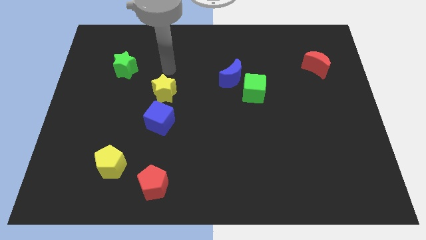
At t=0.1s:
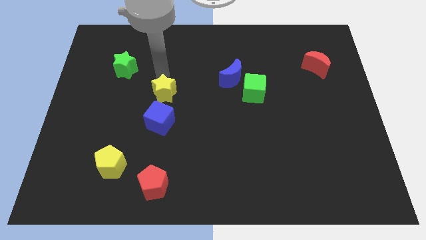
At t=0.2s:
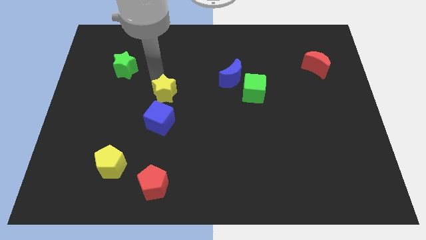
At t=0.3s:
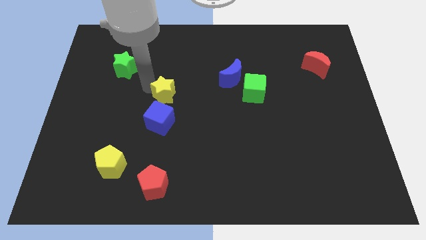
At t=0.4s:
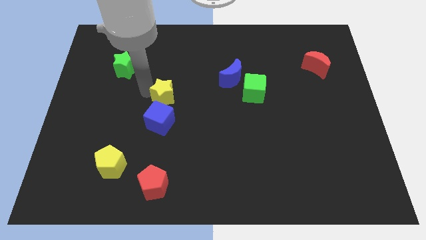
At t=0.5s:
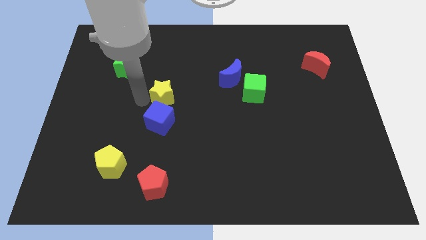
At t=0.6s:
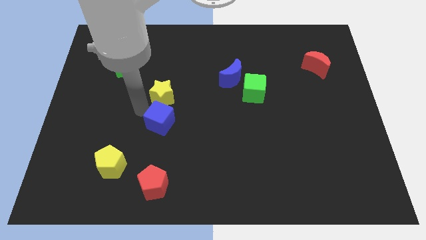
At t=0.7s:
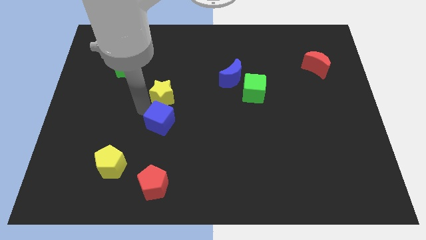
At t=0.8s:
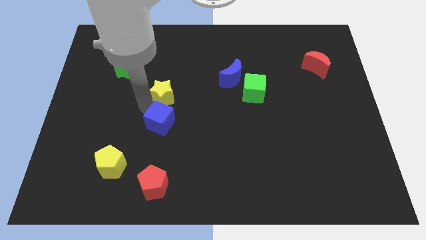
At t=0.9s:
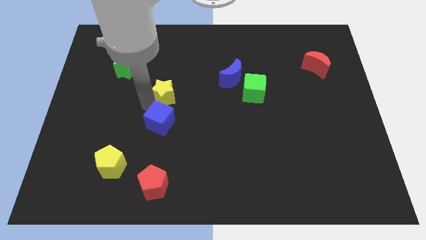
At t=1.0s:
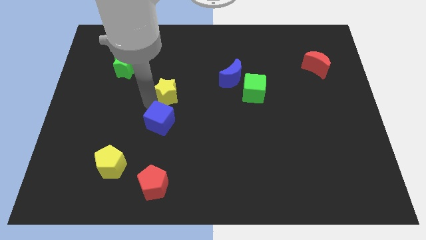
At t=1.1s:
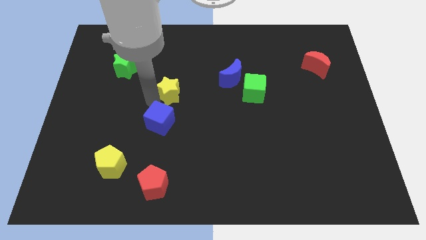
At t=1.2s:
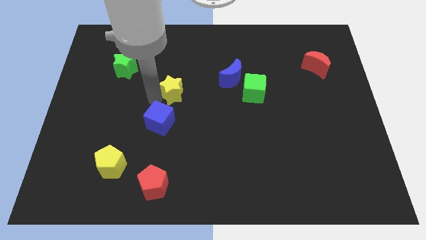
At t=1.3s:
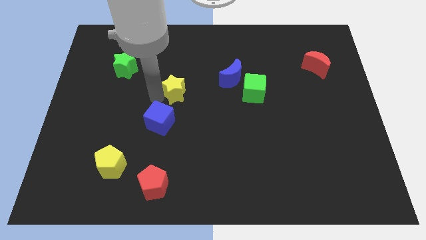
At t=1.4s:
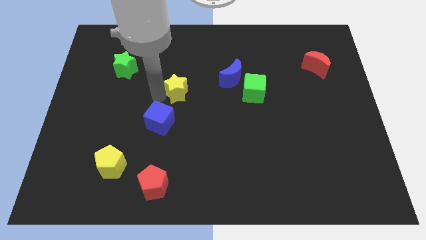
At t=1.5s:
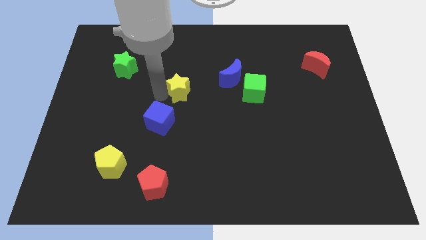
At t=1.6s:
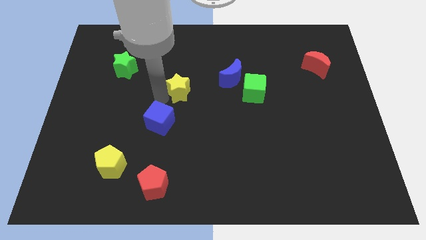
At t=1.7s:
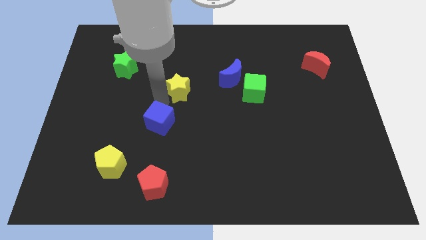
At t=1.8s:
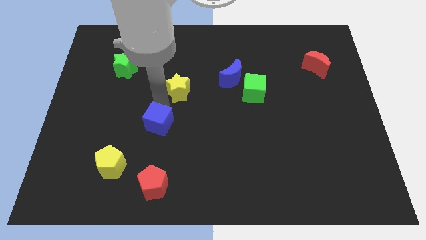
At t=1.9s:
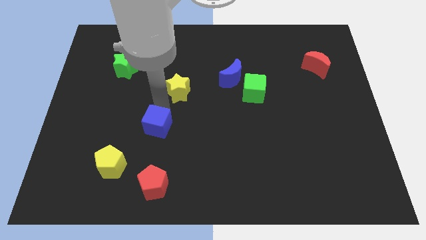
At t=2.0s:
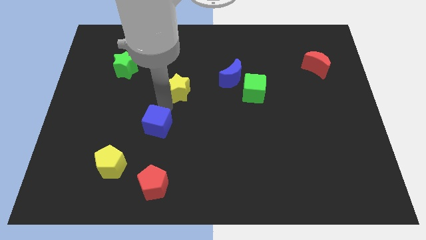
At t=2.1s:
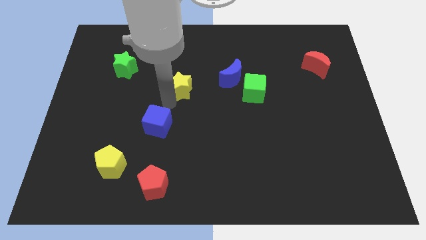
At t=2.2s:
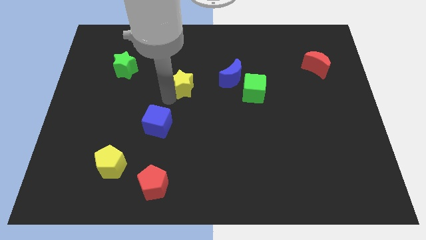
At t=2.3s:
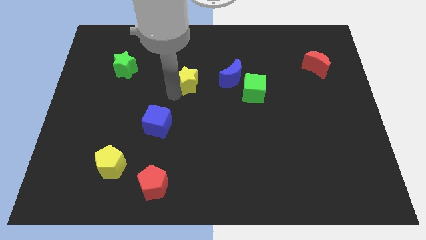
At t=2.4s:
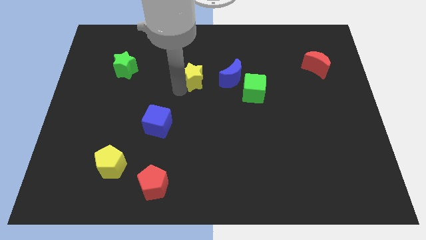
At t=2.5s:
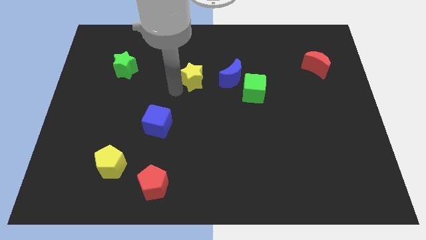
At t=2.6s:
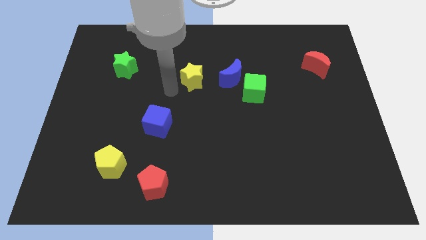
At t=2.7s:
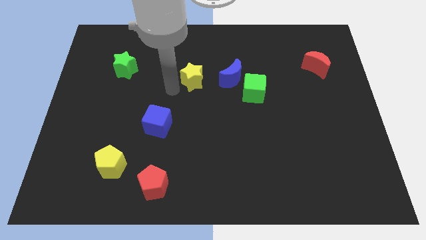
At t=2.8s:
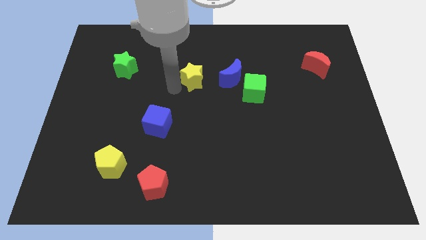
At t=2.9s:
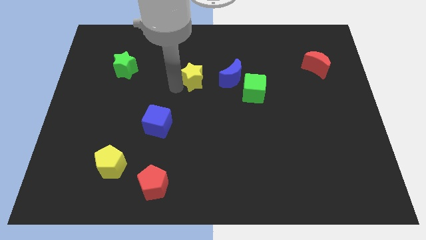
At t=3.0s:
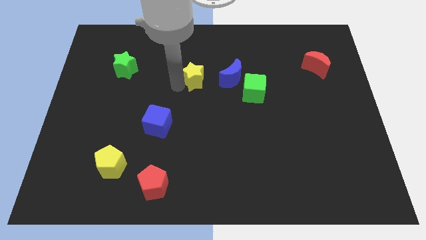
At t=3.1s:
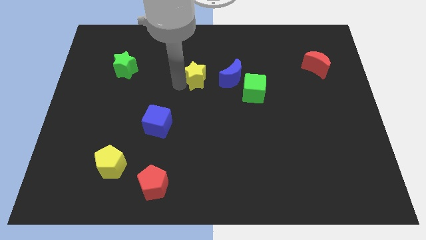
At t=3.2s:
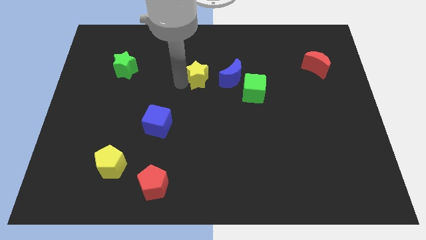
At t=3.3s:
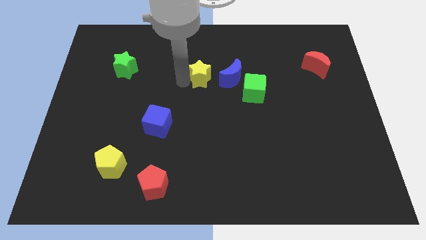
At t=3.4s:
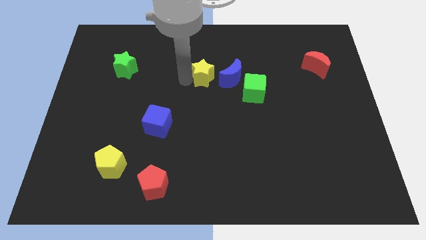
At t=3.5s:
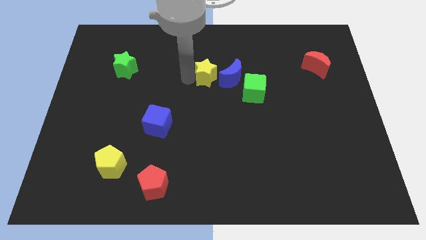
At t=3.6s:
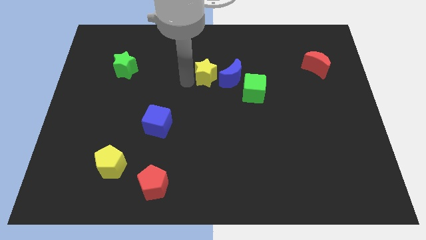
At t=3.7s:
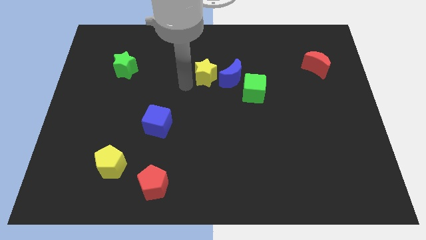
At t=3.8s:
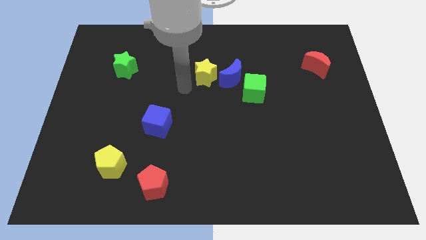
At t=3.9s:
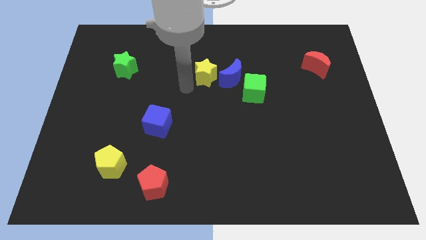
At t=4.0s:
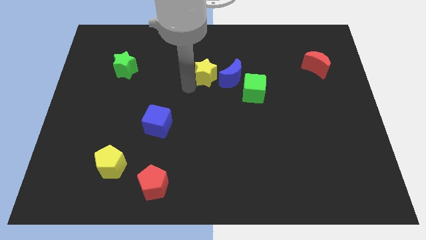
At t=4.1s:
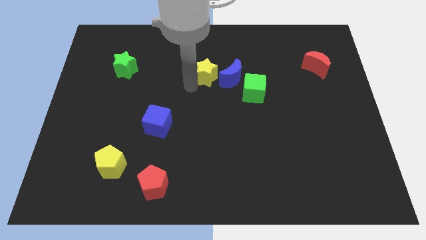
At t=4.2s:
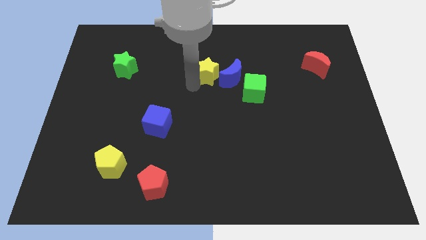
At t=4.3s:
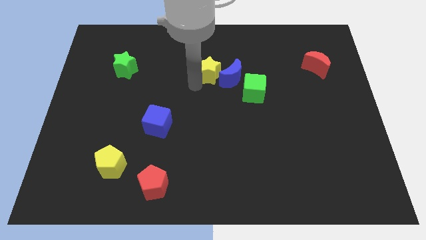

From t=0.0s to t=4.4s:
push the yellow star diagonally up and to the left of the green cube

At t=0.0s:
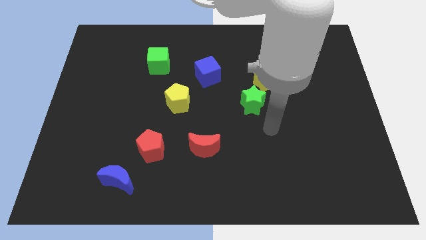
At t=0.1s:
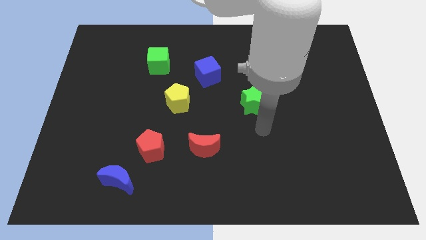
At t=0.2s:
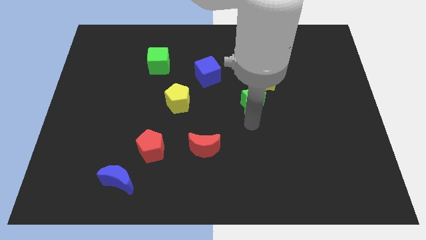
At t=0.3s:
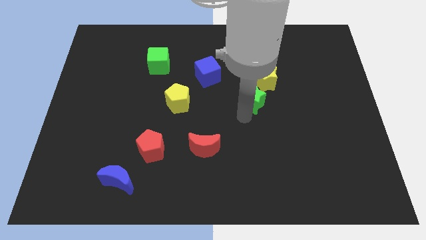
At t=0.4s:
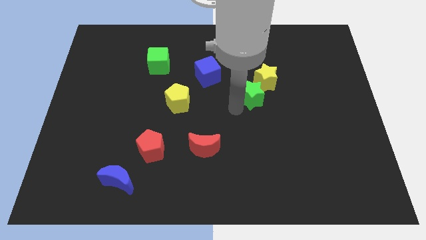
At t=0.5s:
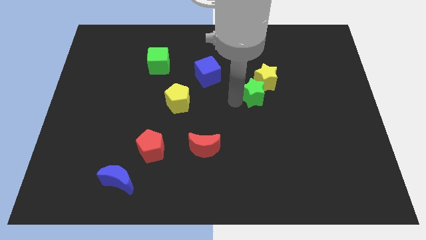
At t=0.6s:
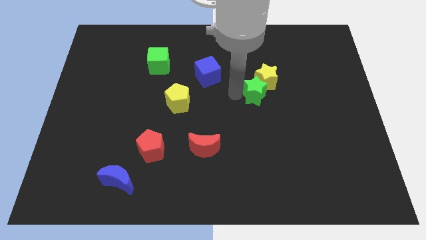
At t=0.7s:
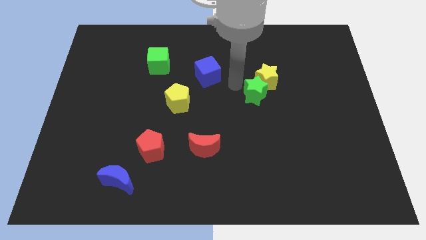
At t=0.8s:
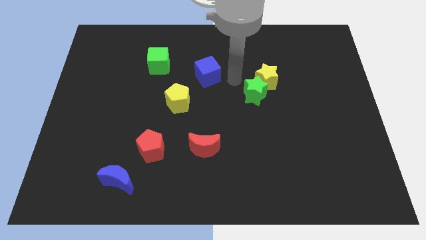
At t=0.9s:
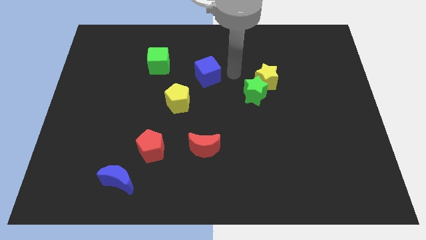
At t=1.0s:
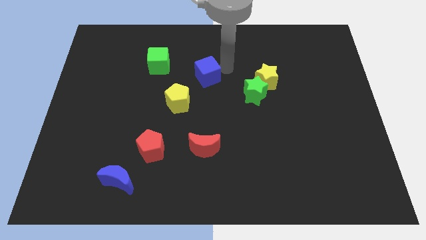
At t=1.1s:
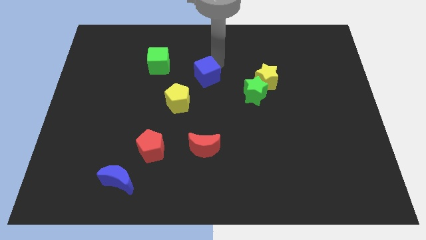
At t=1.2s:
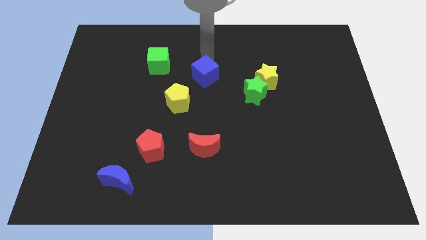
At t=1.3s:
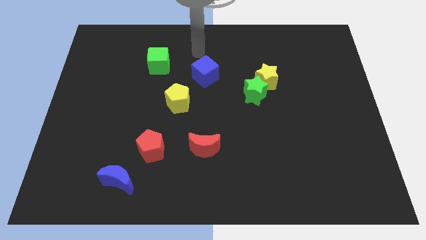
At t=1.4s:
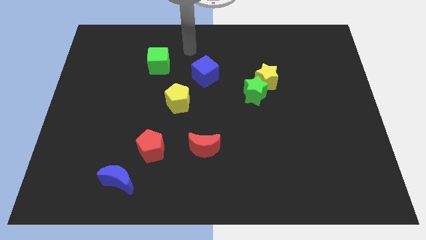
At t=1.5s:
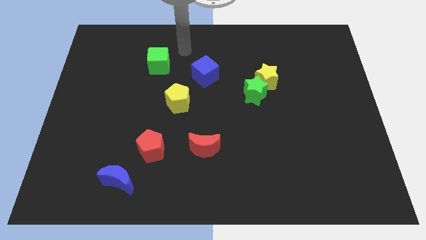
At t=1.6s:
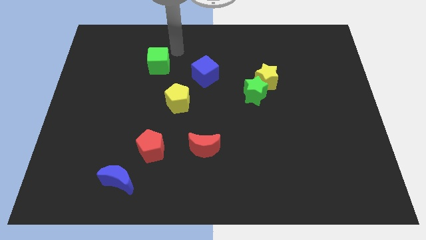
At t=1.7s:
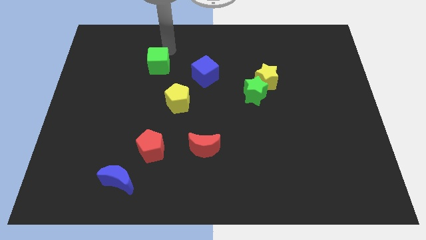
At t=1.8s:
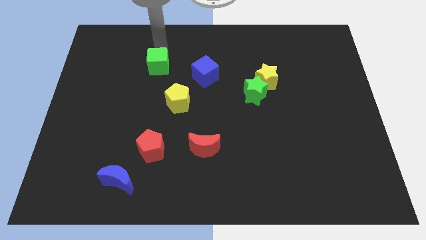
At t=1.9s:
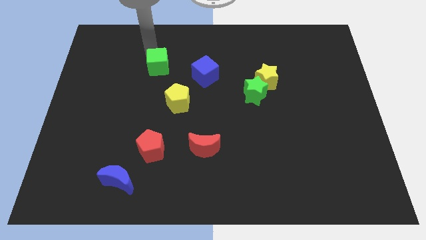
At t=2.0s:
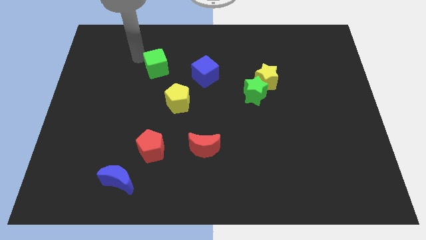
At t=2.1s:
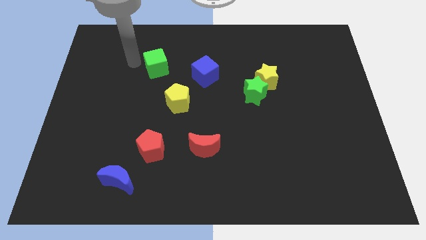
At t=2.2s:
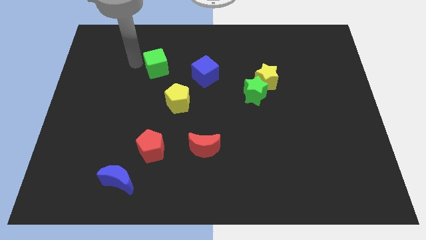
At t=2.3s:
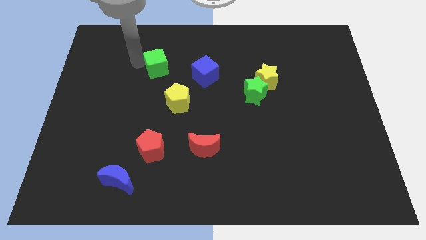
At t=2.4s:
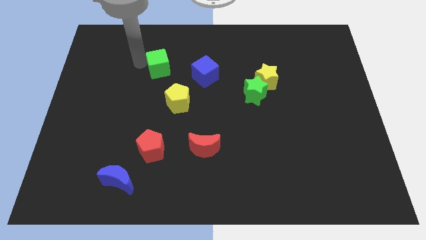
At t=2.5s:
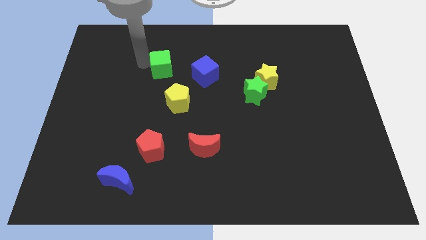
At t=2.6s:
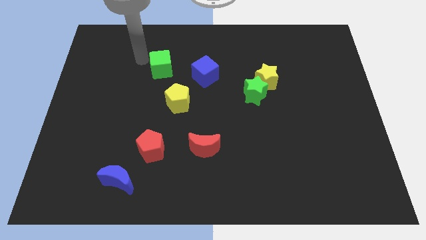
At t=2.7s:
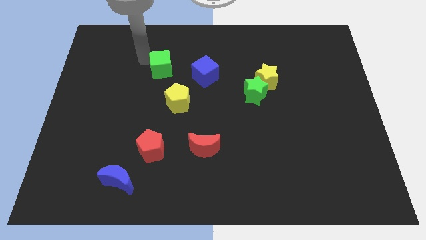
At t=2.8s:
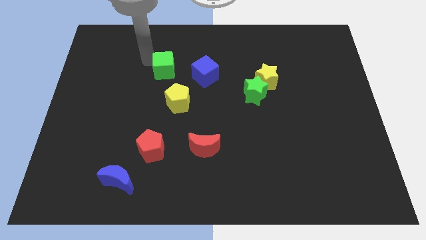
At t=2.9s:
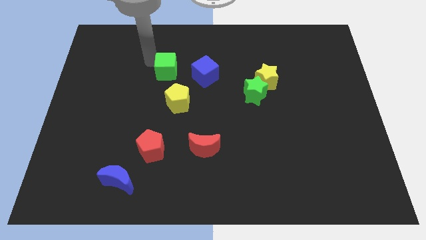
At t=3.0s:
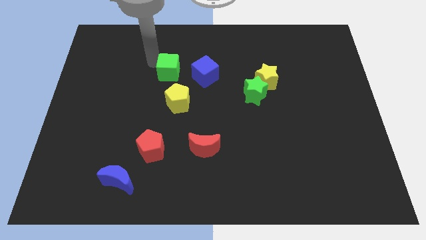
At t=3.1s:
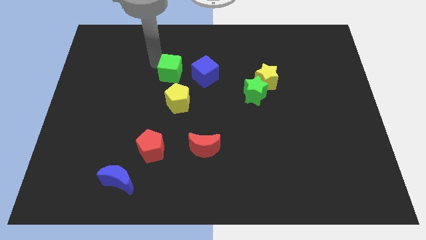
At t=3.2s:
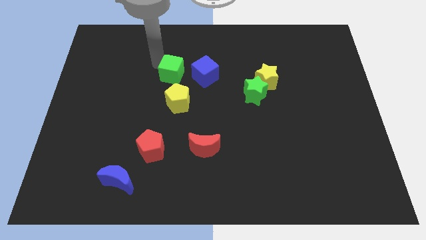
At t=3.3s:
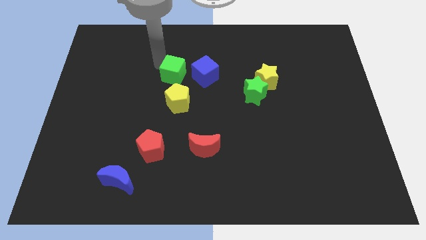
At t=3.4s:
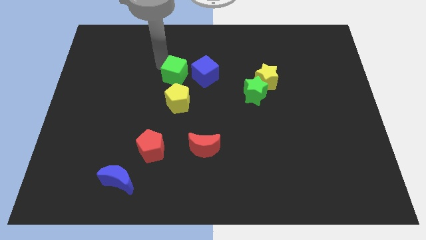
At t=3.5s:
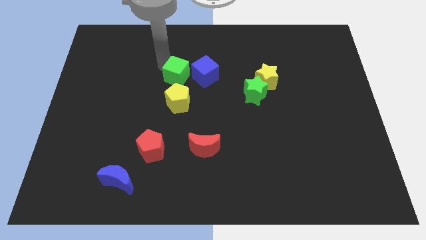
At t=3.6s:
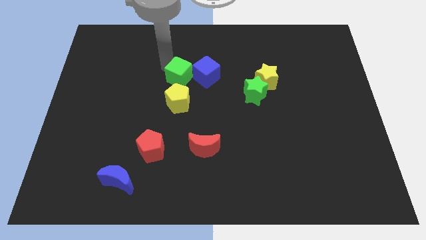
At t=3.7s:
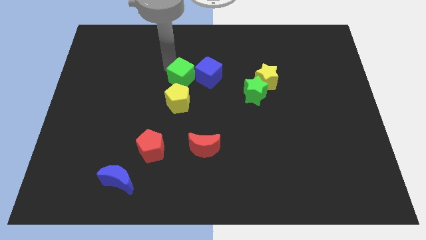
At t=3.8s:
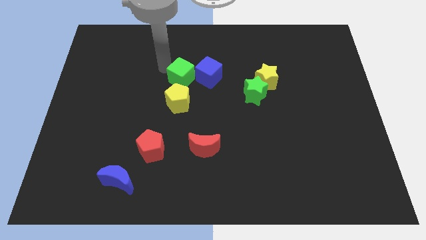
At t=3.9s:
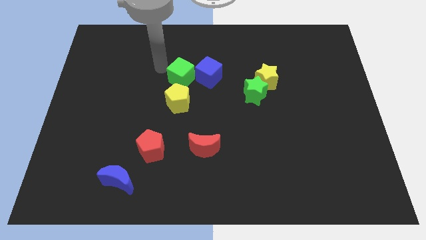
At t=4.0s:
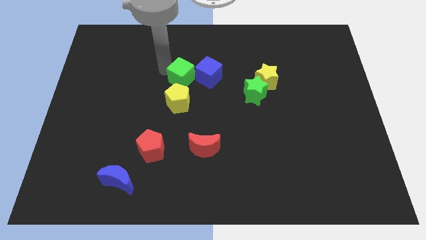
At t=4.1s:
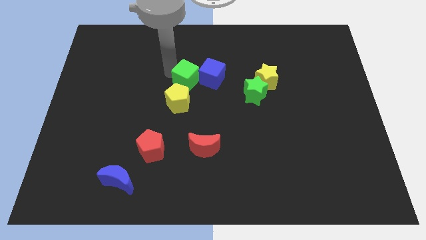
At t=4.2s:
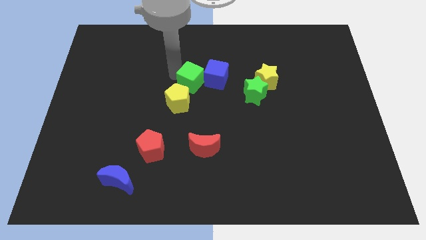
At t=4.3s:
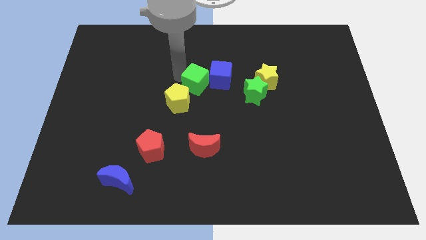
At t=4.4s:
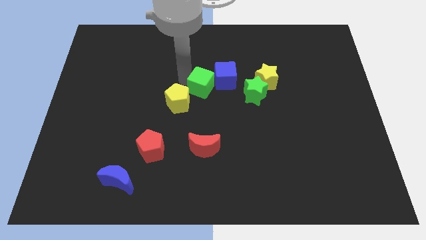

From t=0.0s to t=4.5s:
put the green cube just left of the yellow star
